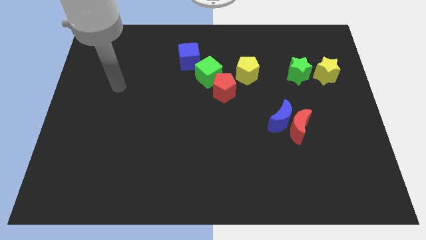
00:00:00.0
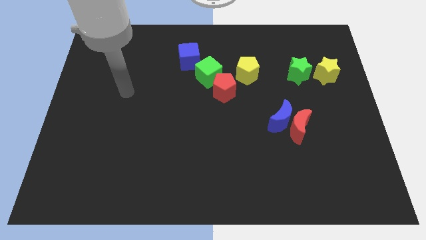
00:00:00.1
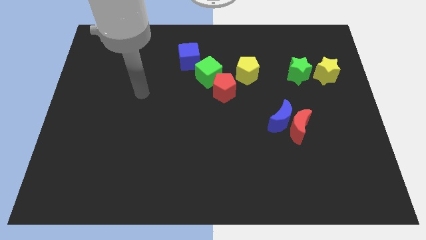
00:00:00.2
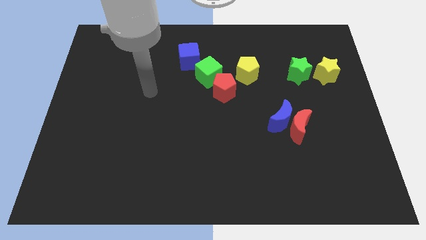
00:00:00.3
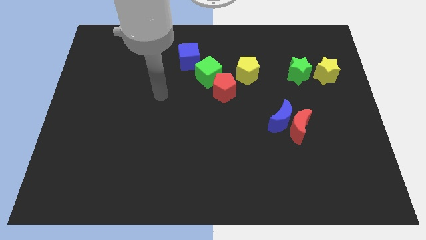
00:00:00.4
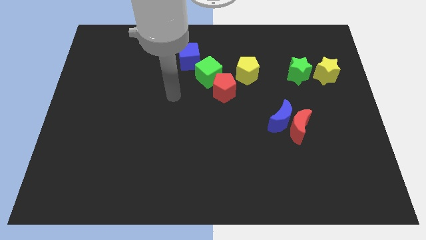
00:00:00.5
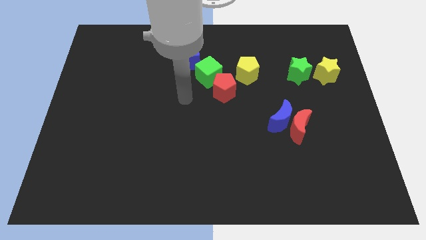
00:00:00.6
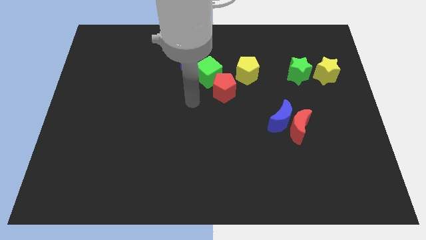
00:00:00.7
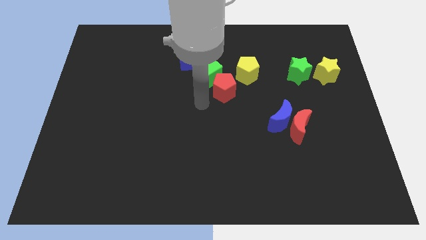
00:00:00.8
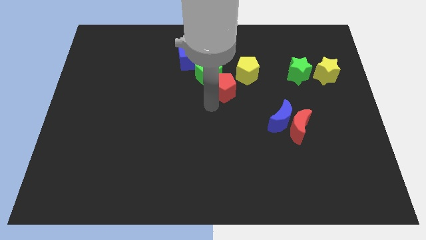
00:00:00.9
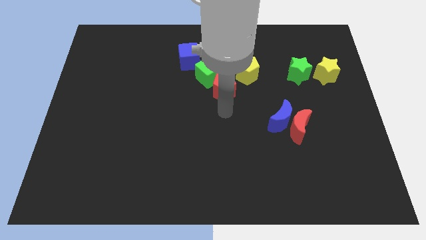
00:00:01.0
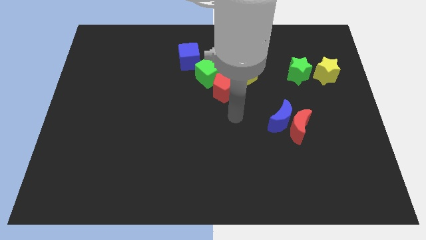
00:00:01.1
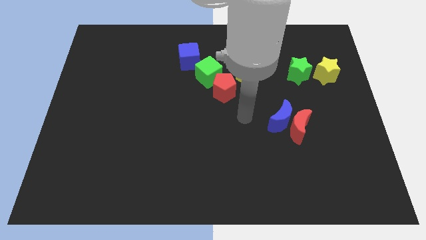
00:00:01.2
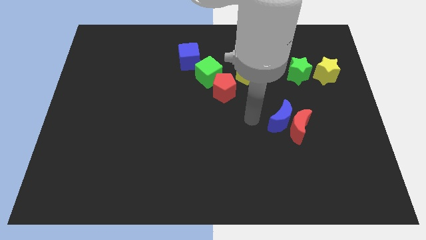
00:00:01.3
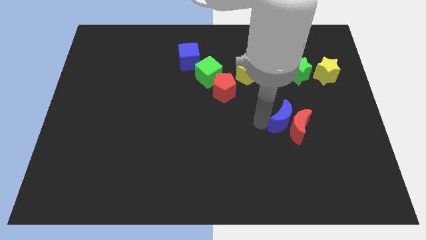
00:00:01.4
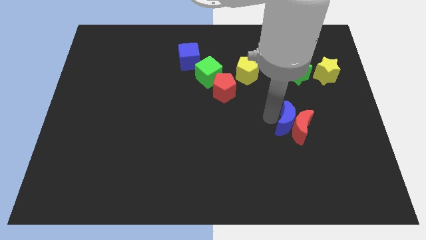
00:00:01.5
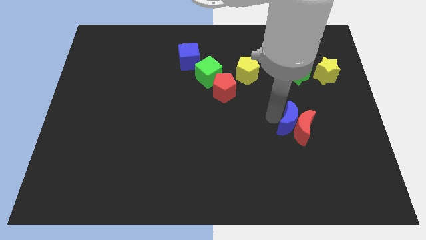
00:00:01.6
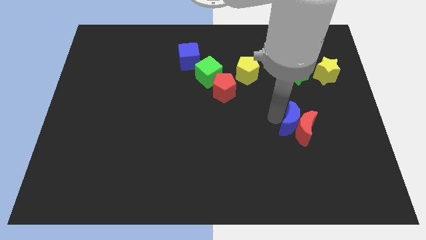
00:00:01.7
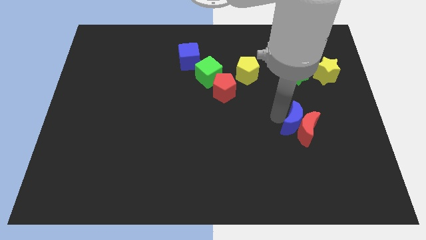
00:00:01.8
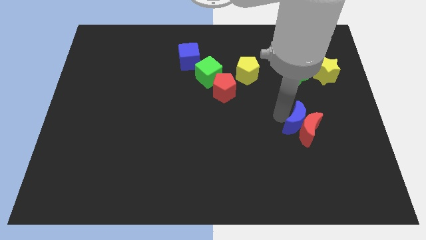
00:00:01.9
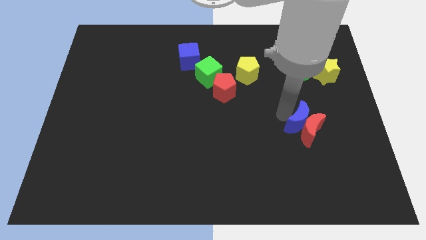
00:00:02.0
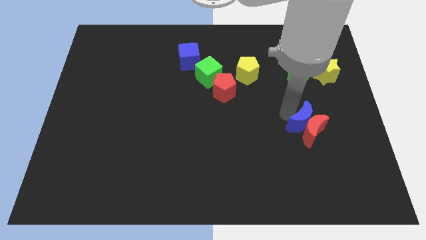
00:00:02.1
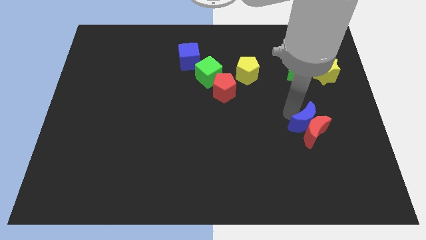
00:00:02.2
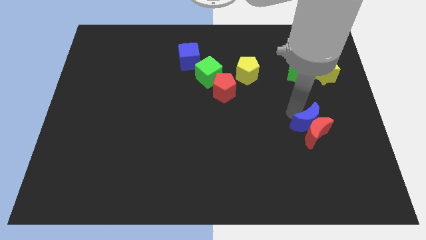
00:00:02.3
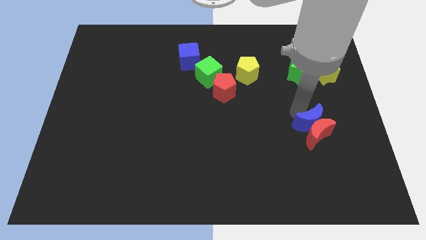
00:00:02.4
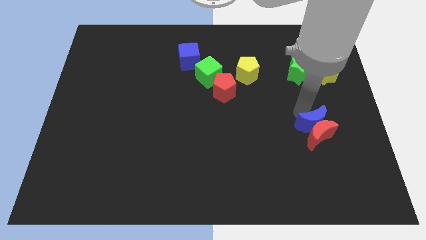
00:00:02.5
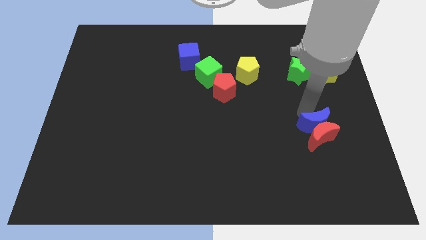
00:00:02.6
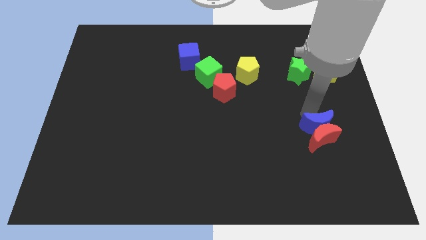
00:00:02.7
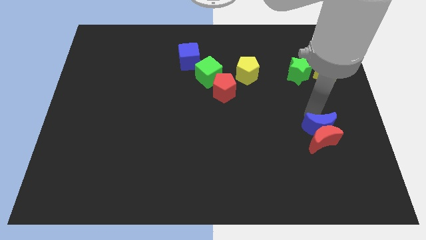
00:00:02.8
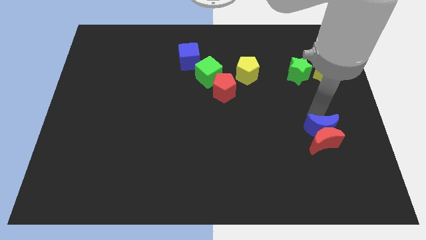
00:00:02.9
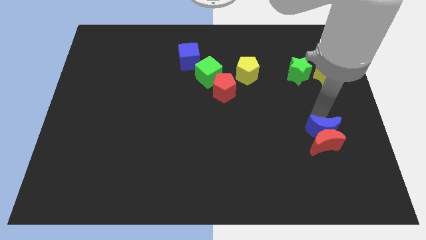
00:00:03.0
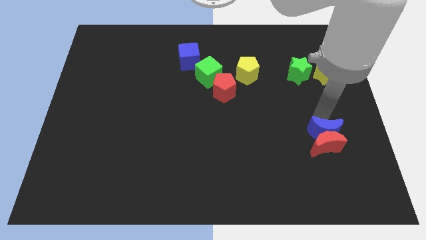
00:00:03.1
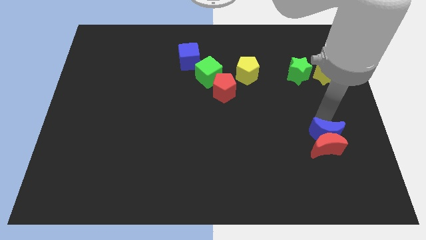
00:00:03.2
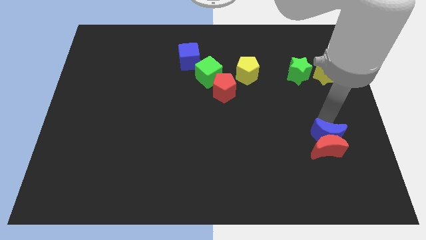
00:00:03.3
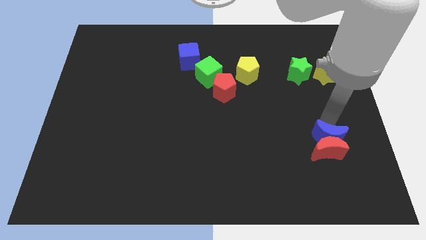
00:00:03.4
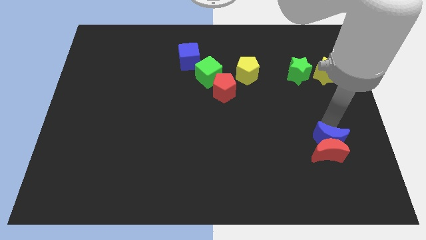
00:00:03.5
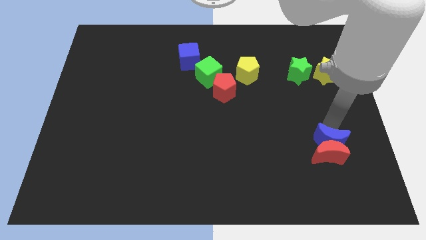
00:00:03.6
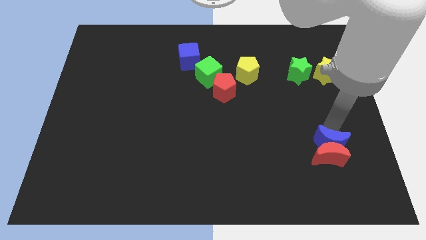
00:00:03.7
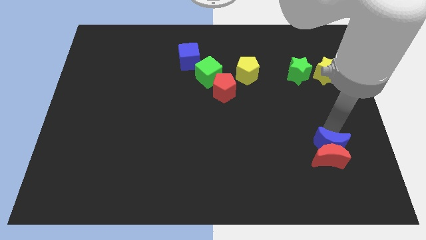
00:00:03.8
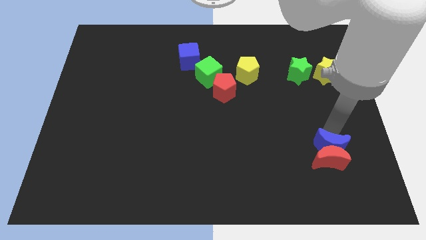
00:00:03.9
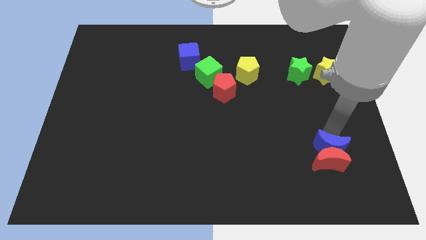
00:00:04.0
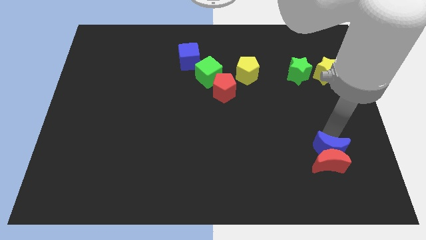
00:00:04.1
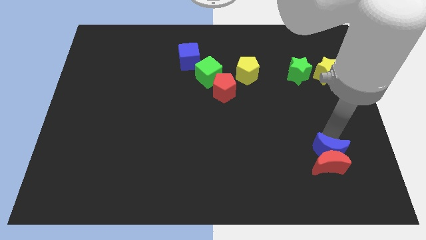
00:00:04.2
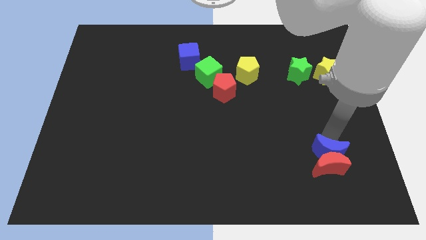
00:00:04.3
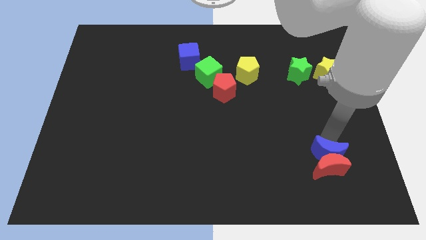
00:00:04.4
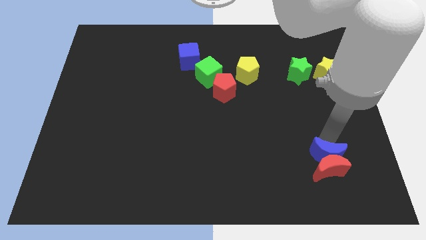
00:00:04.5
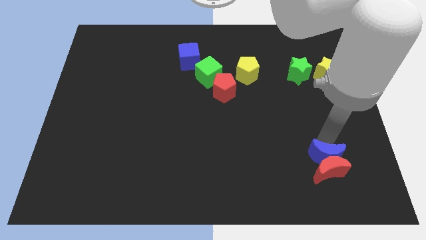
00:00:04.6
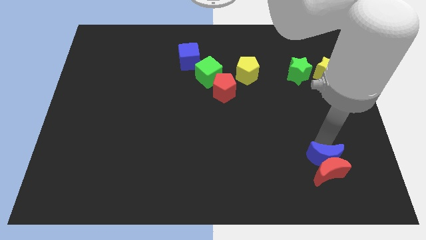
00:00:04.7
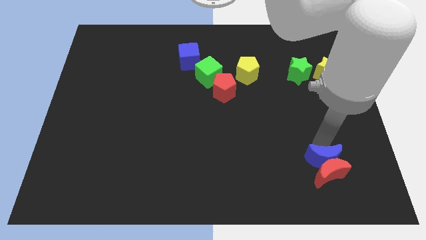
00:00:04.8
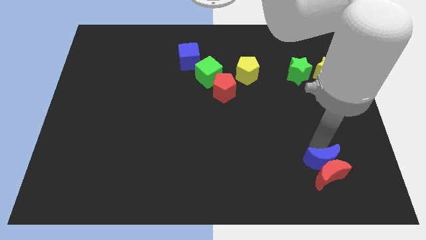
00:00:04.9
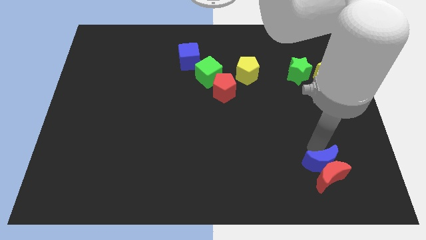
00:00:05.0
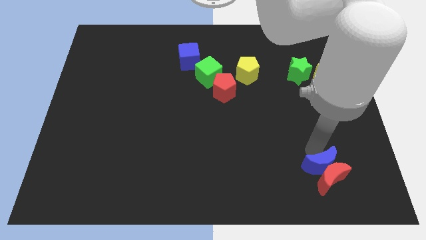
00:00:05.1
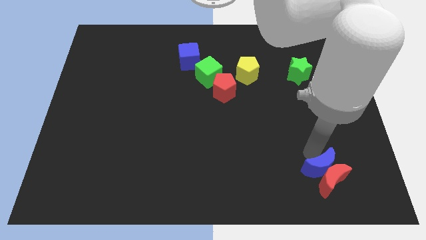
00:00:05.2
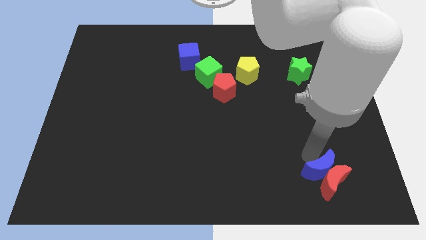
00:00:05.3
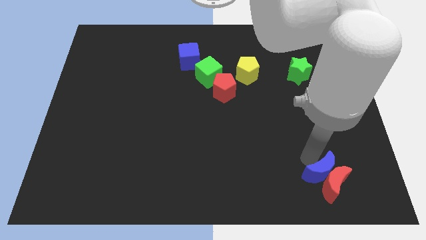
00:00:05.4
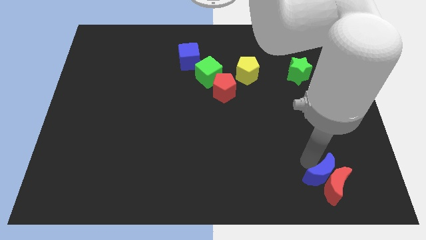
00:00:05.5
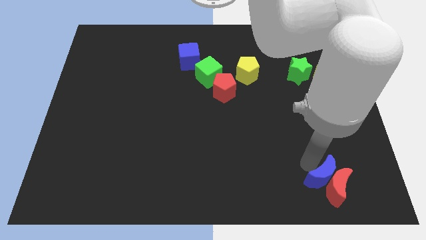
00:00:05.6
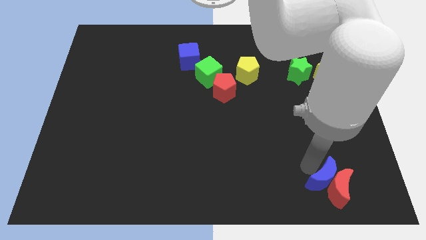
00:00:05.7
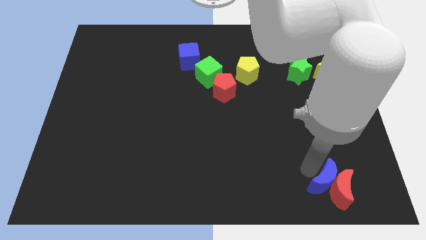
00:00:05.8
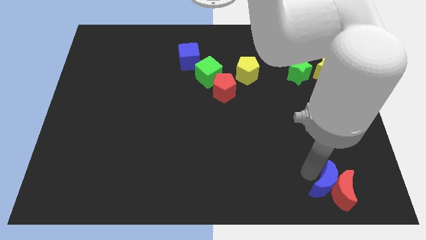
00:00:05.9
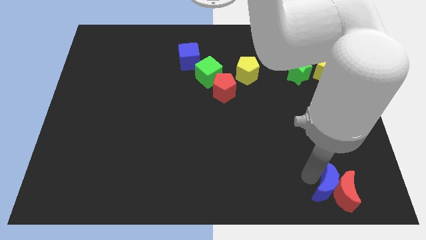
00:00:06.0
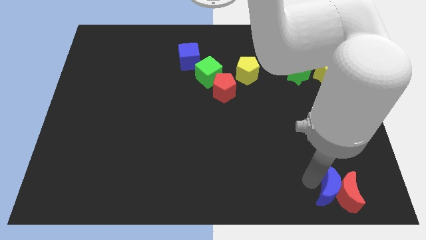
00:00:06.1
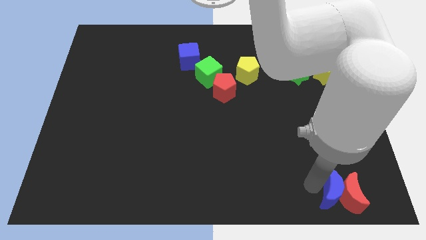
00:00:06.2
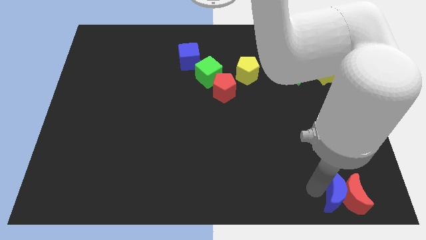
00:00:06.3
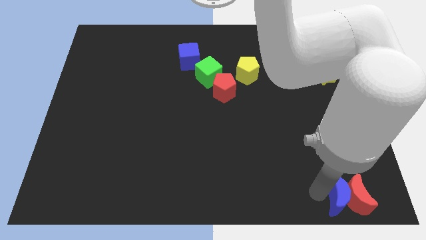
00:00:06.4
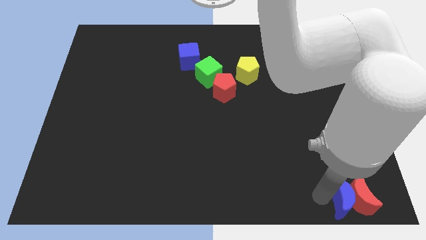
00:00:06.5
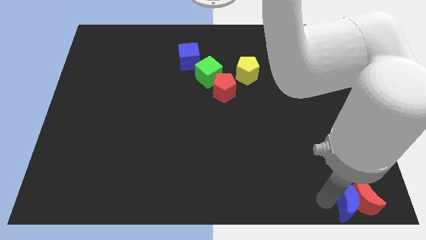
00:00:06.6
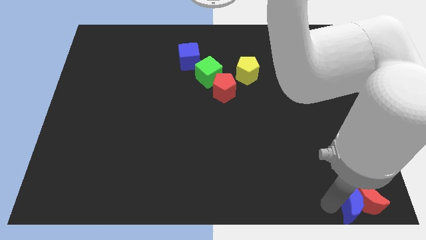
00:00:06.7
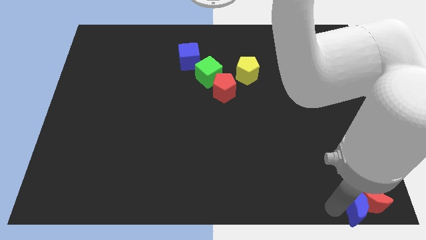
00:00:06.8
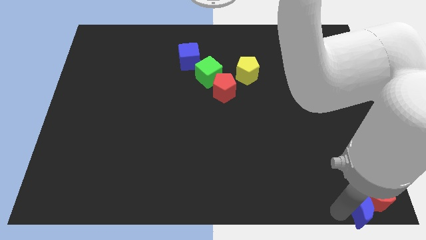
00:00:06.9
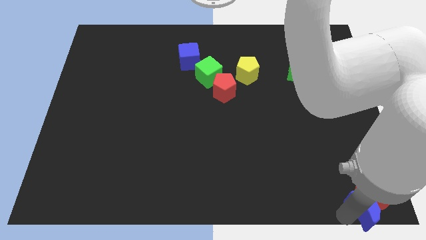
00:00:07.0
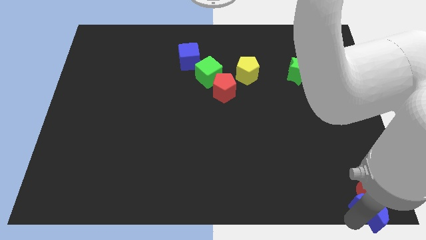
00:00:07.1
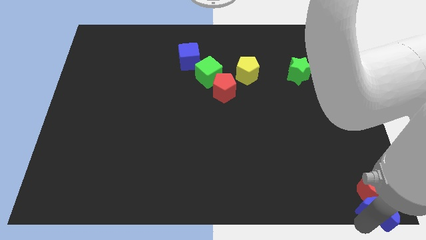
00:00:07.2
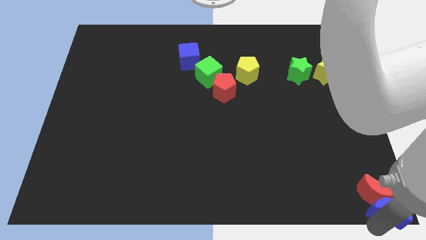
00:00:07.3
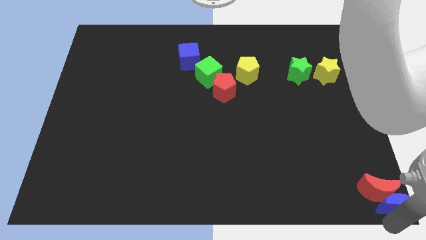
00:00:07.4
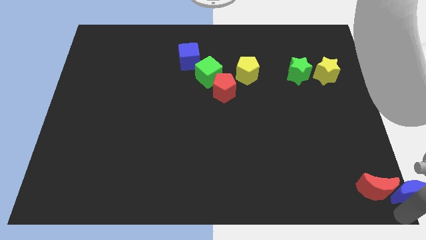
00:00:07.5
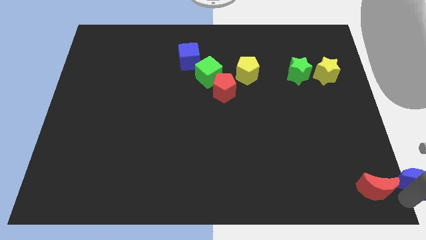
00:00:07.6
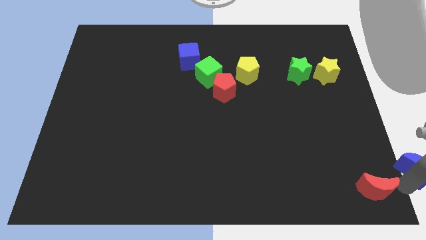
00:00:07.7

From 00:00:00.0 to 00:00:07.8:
separate the red moon from the blue moon

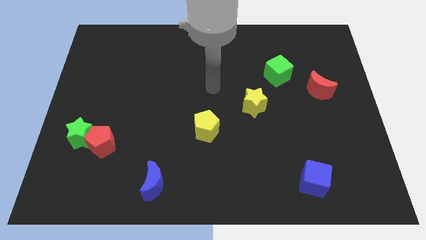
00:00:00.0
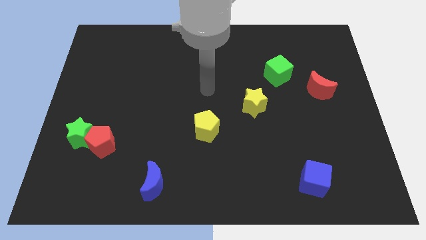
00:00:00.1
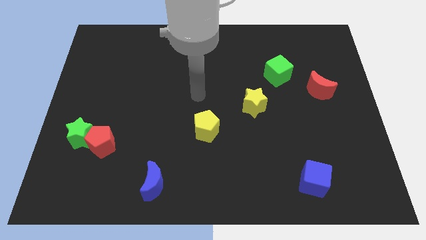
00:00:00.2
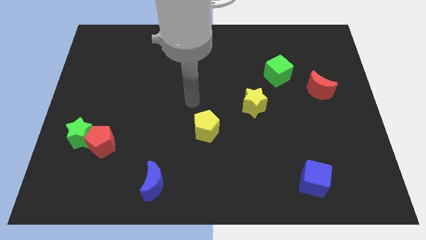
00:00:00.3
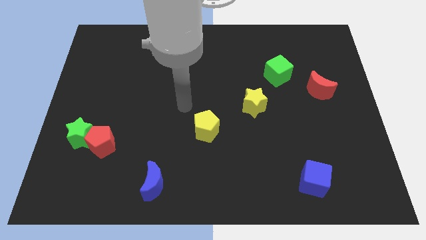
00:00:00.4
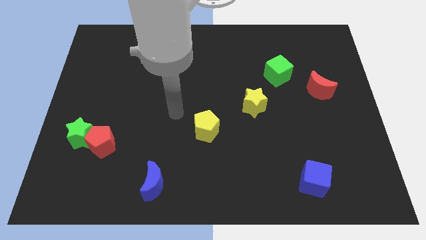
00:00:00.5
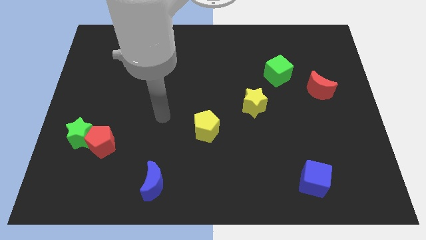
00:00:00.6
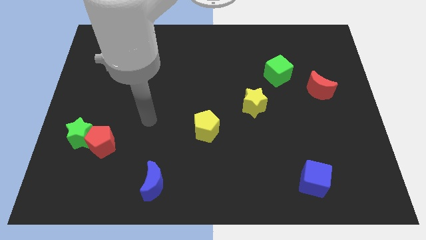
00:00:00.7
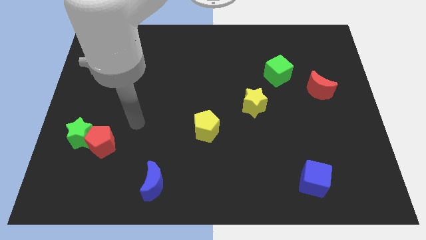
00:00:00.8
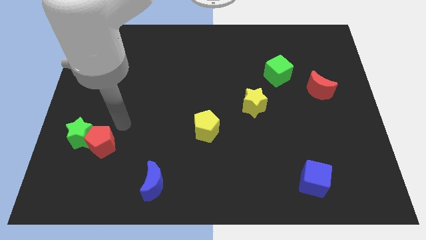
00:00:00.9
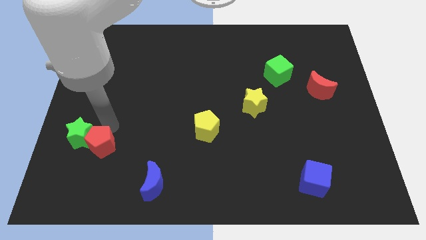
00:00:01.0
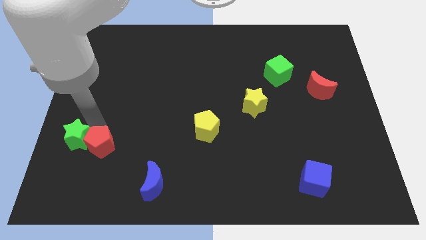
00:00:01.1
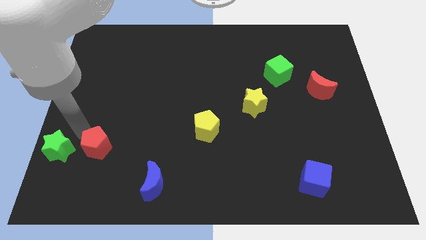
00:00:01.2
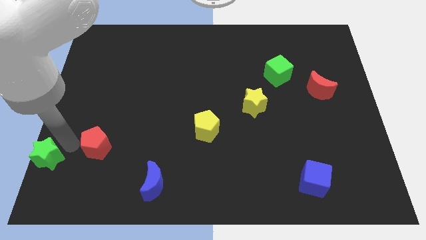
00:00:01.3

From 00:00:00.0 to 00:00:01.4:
pull the red pentagon apart from the green star
